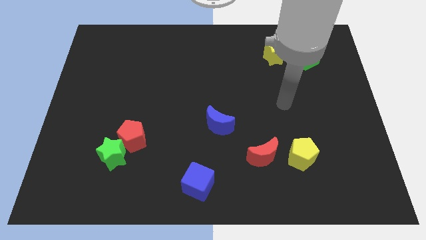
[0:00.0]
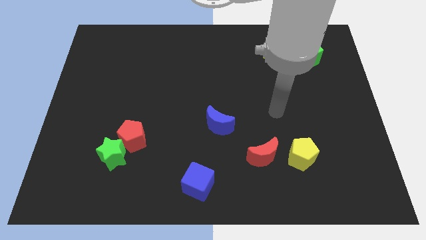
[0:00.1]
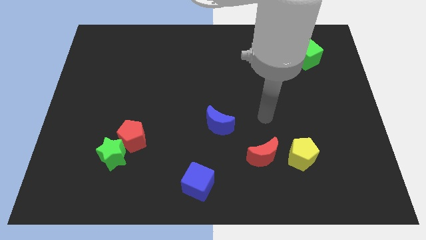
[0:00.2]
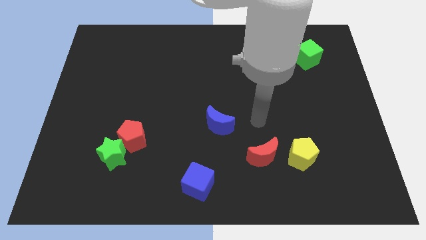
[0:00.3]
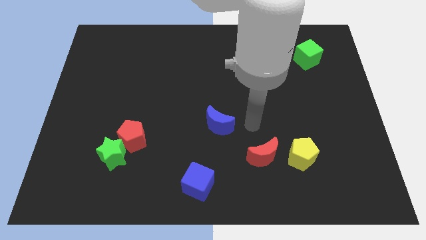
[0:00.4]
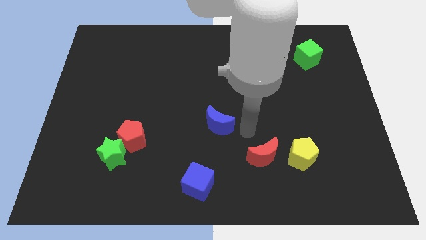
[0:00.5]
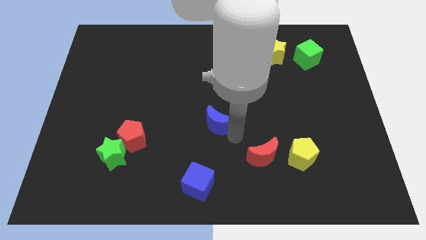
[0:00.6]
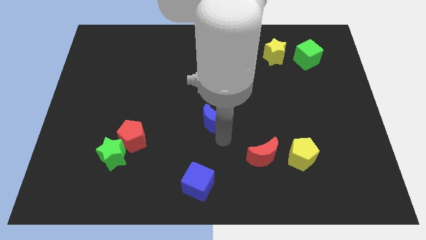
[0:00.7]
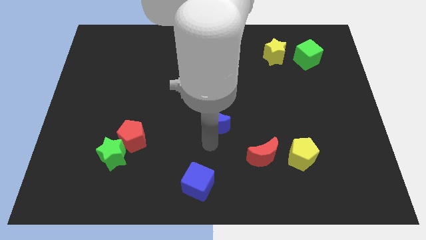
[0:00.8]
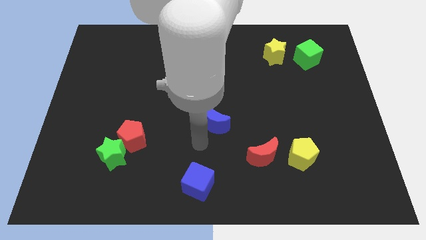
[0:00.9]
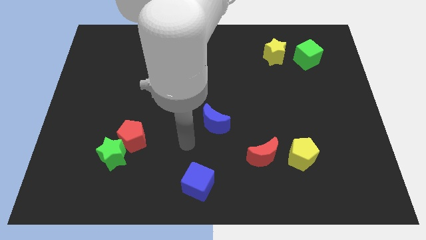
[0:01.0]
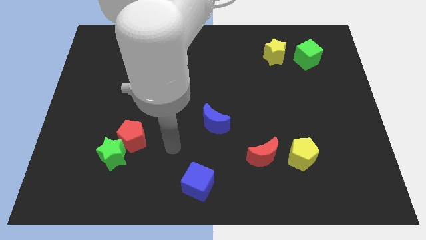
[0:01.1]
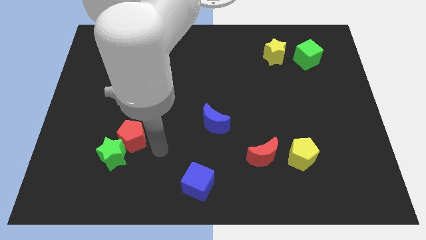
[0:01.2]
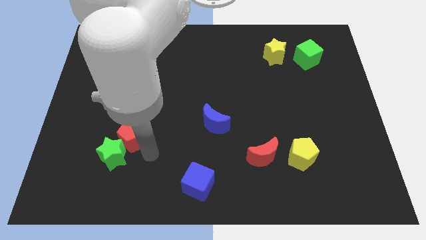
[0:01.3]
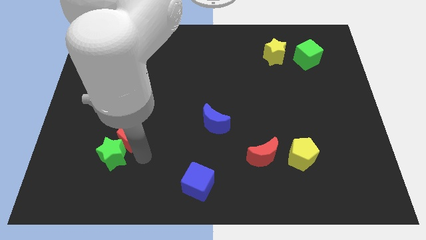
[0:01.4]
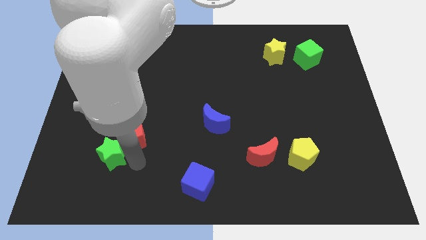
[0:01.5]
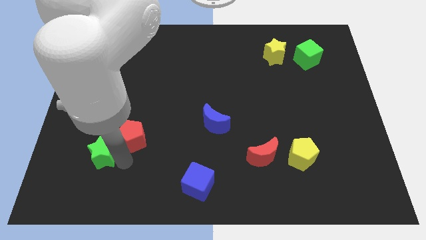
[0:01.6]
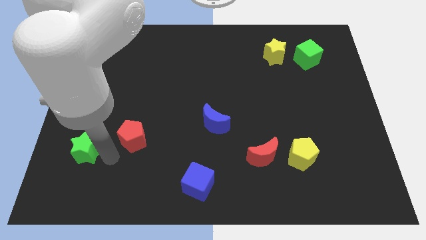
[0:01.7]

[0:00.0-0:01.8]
pull the red pentagon apart from the green star

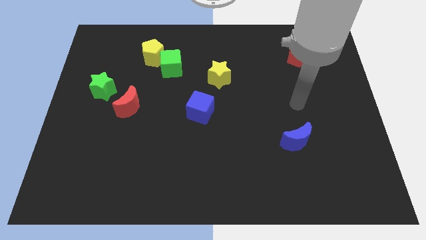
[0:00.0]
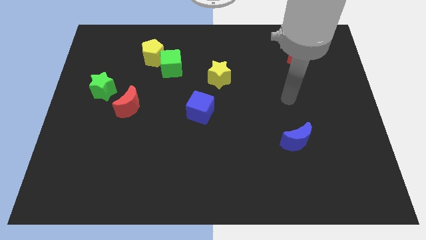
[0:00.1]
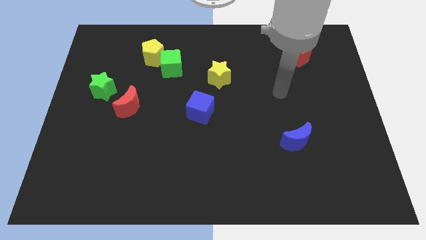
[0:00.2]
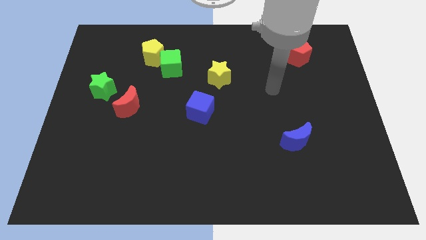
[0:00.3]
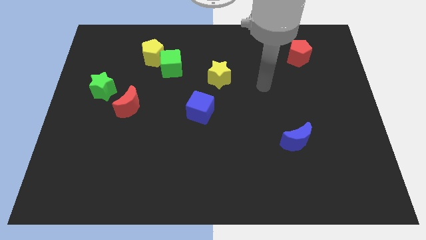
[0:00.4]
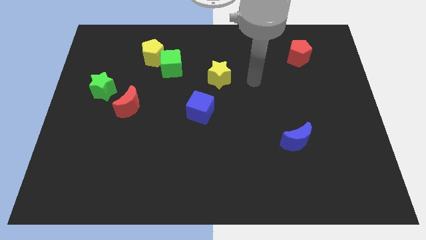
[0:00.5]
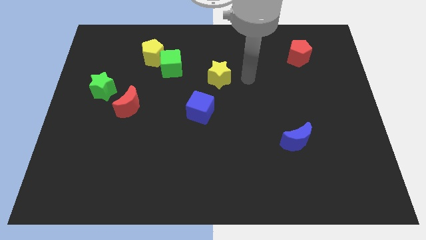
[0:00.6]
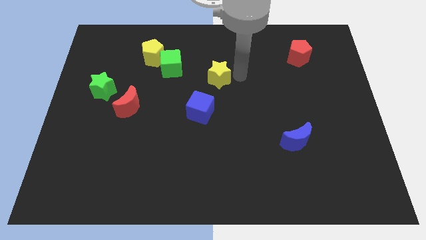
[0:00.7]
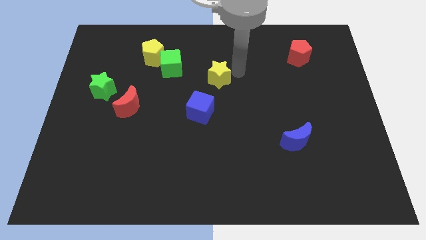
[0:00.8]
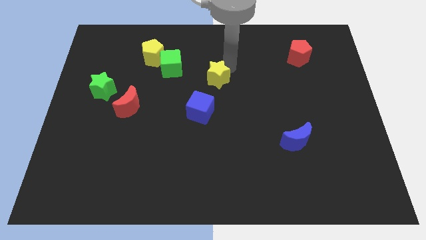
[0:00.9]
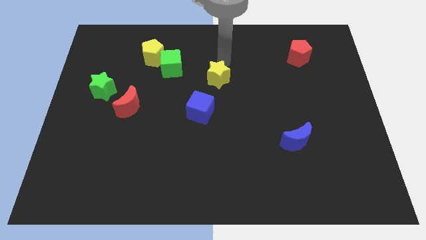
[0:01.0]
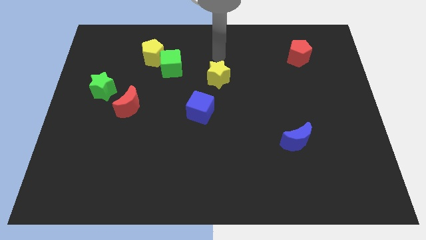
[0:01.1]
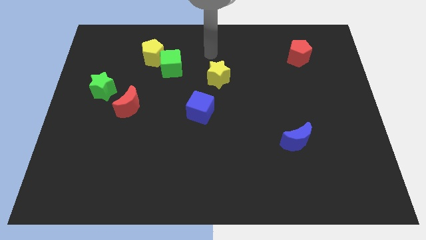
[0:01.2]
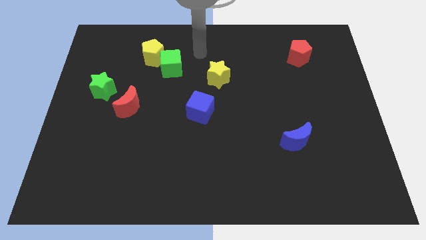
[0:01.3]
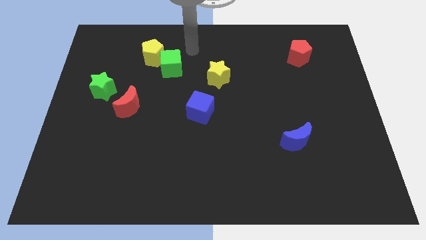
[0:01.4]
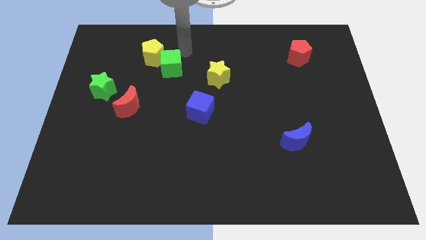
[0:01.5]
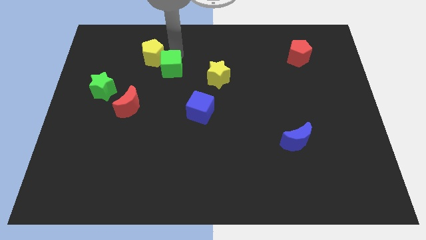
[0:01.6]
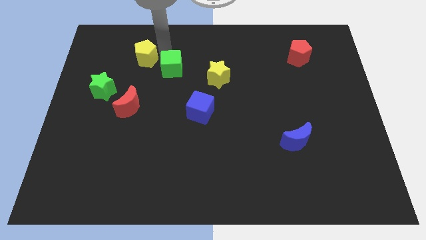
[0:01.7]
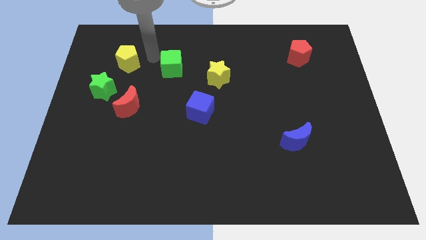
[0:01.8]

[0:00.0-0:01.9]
move the green cube away from the yellow pentagon

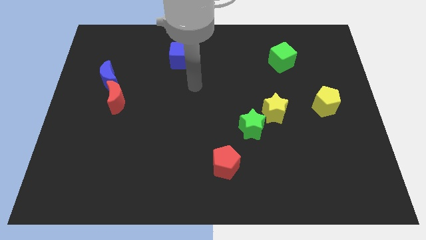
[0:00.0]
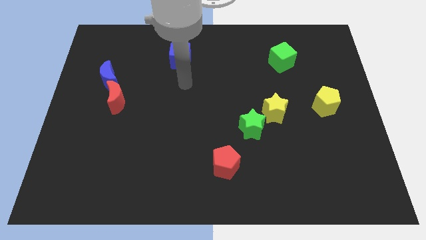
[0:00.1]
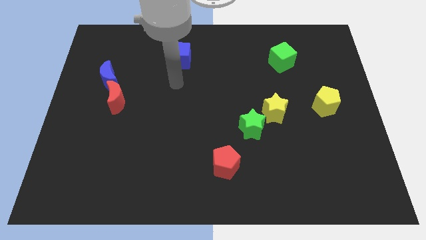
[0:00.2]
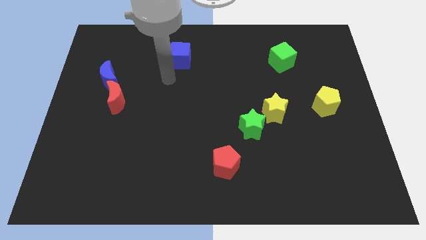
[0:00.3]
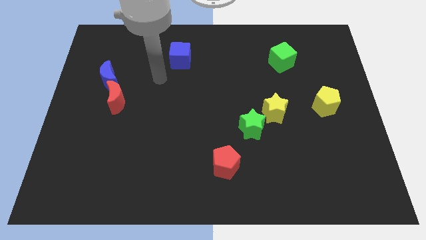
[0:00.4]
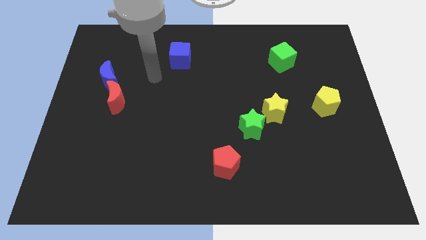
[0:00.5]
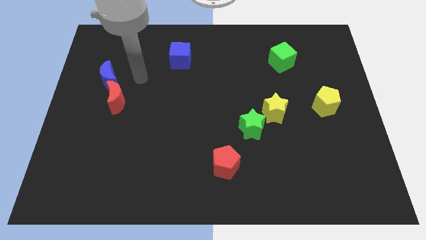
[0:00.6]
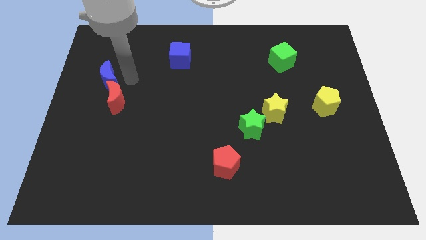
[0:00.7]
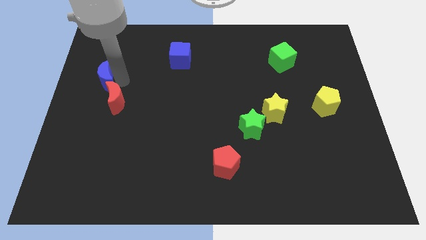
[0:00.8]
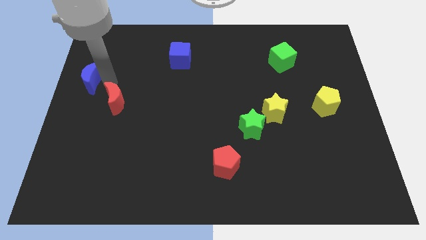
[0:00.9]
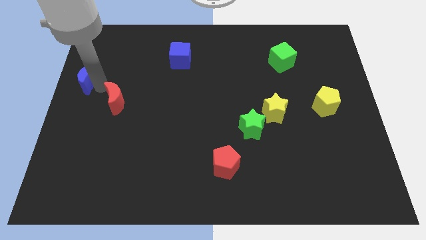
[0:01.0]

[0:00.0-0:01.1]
move the red moon away from the blue moon

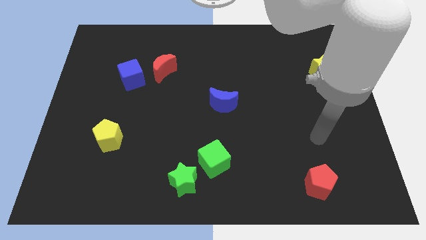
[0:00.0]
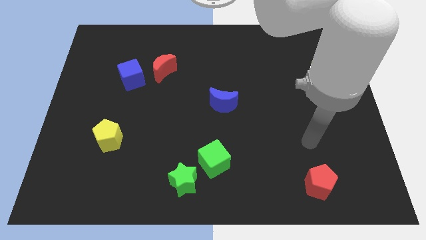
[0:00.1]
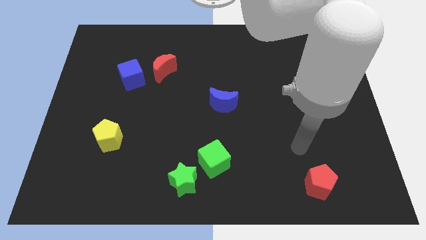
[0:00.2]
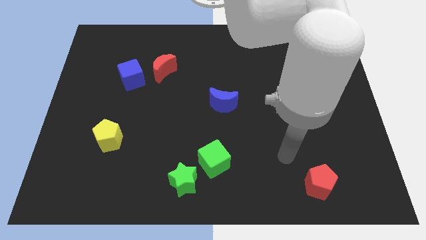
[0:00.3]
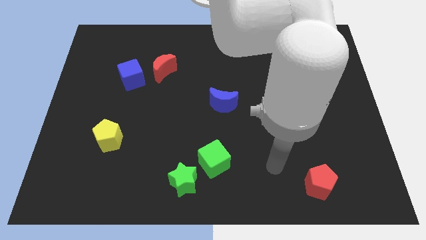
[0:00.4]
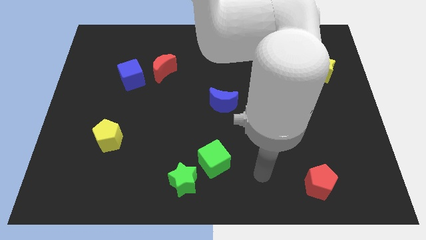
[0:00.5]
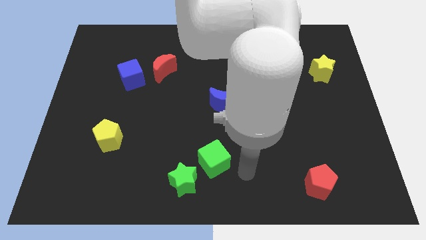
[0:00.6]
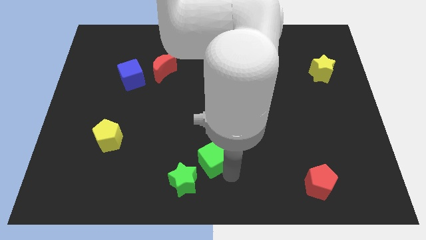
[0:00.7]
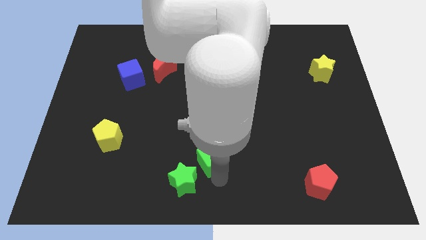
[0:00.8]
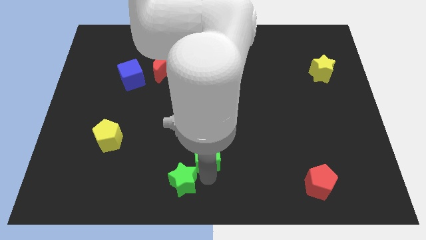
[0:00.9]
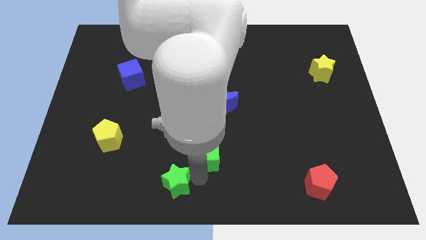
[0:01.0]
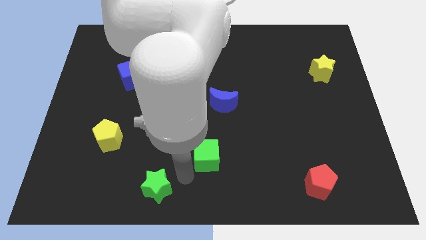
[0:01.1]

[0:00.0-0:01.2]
separate the green cube from the green star

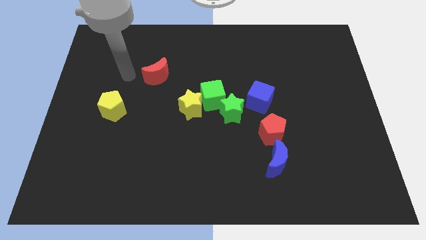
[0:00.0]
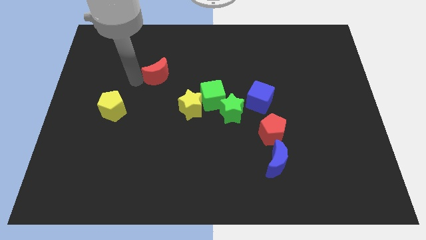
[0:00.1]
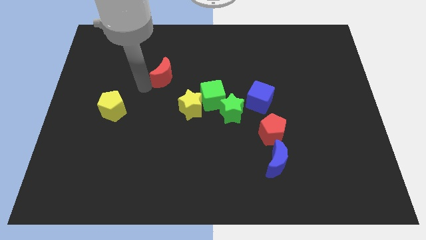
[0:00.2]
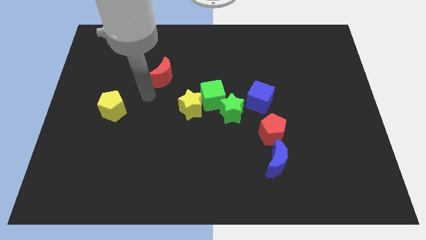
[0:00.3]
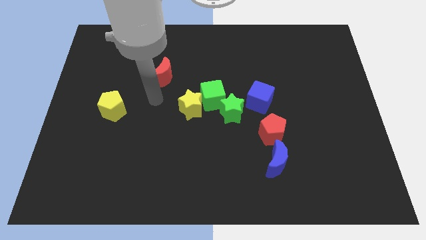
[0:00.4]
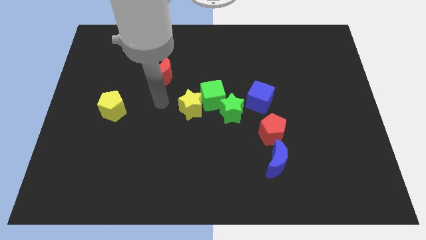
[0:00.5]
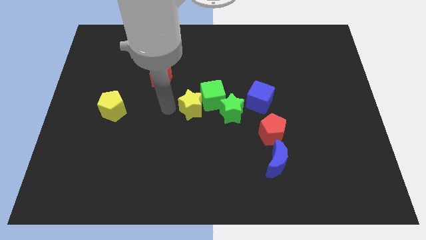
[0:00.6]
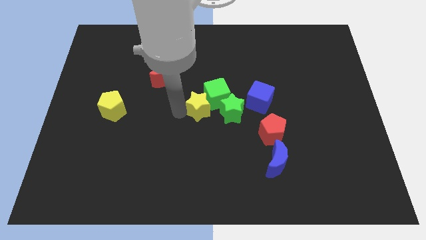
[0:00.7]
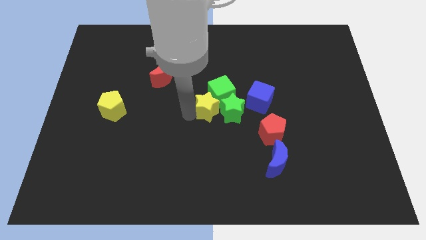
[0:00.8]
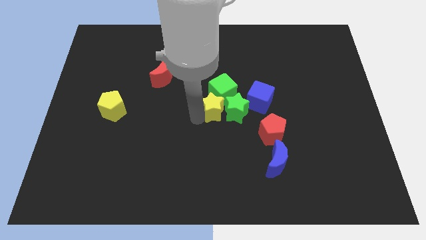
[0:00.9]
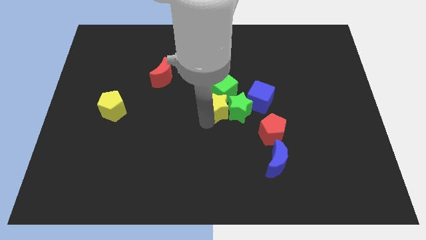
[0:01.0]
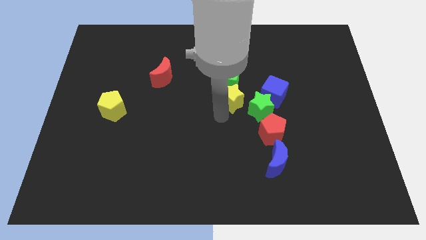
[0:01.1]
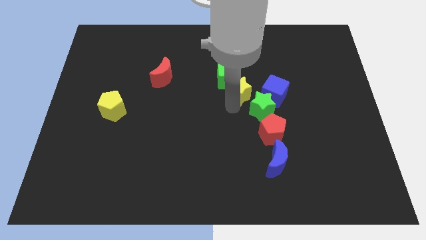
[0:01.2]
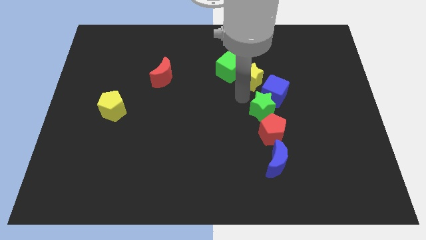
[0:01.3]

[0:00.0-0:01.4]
move the green cube away from the yellow star and green star

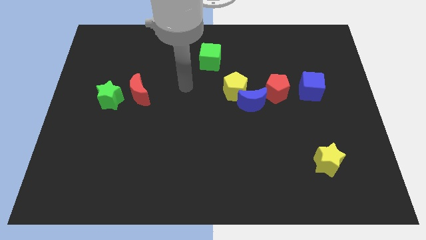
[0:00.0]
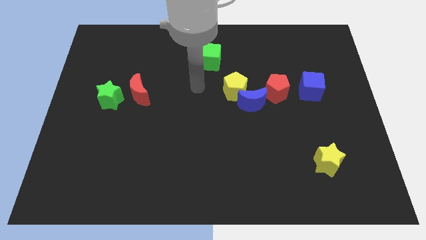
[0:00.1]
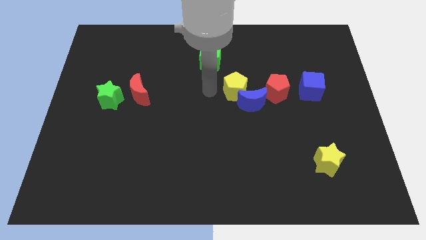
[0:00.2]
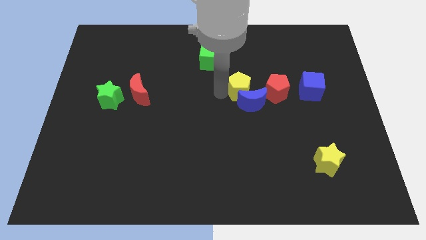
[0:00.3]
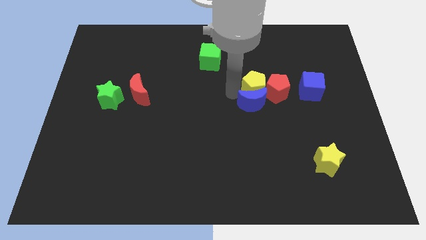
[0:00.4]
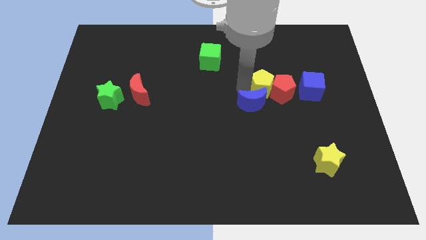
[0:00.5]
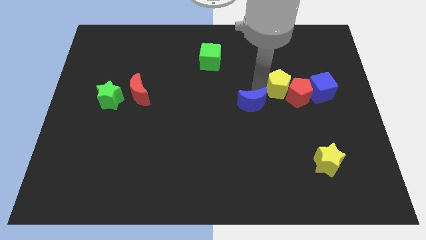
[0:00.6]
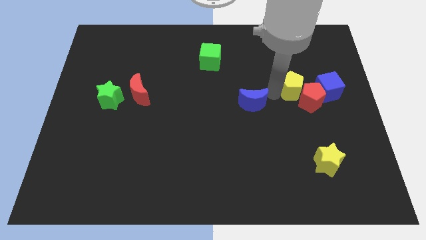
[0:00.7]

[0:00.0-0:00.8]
pull the blue moon apart from the yellow pentagon and red pentagon

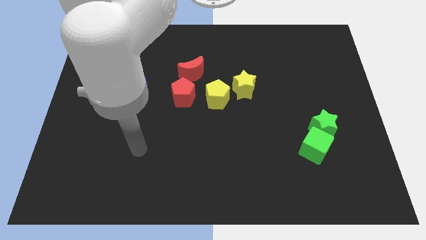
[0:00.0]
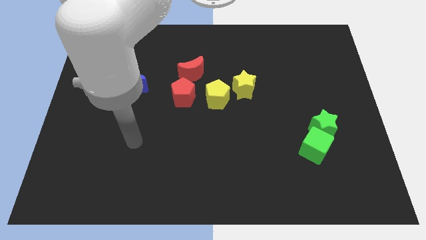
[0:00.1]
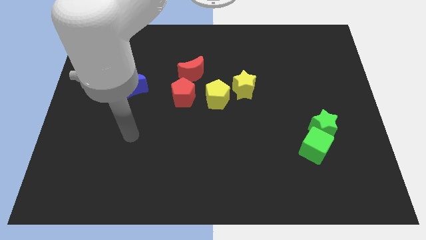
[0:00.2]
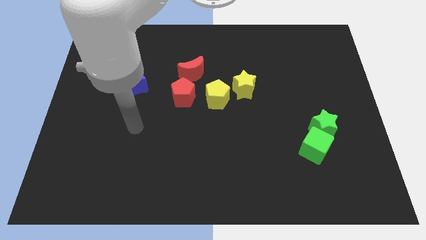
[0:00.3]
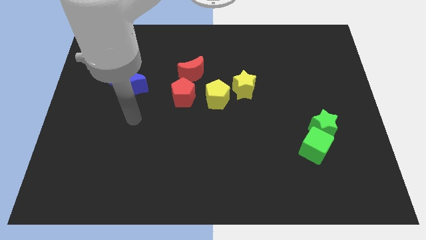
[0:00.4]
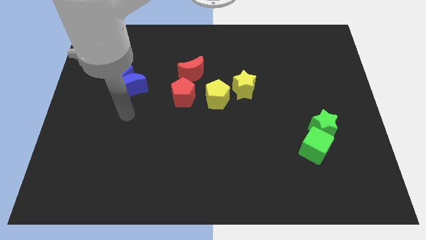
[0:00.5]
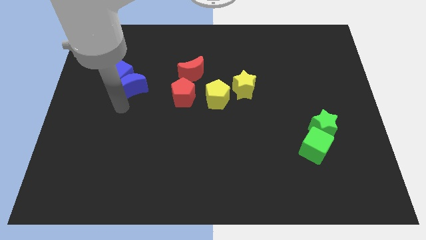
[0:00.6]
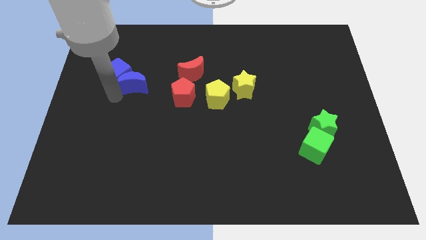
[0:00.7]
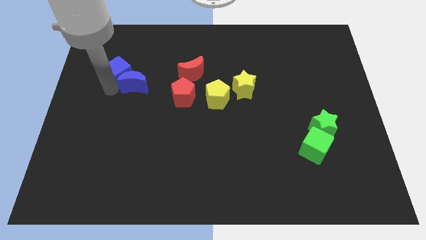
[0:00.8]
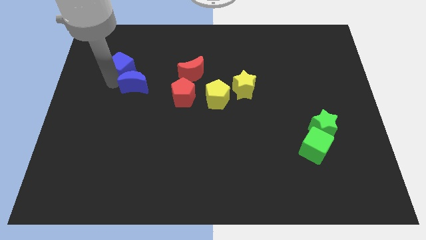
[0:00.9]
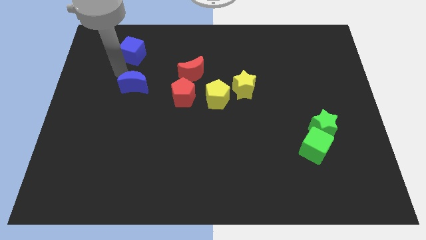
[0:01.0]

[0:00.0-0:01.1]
separate the blue moon from the blue cube

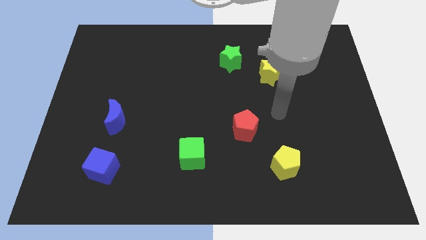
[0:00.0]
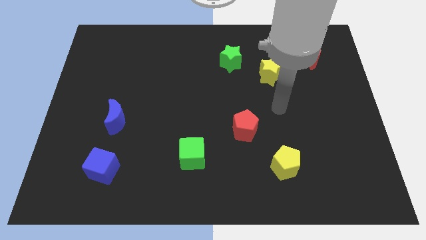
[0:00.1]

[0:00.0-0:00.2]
separate the green star from the yellow star
